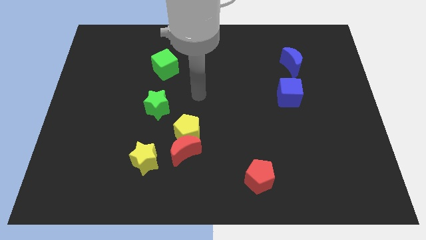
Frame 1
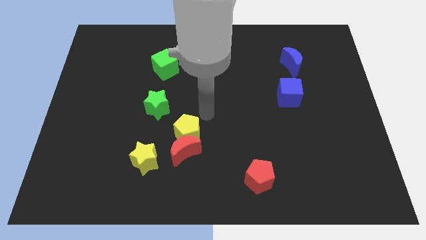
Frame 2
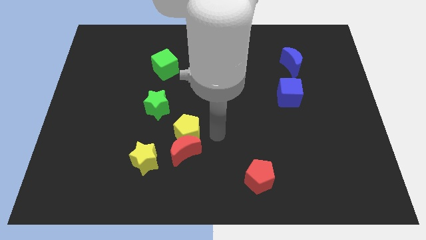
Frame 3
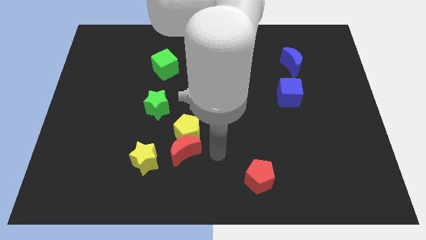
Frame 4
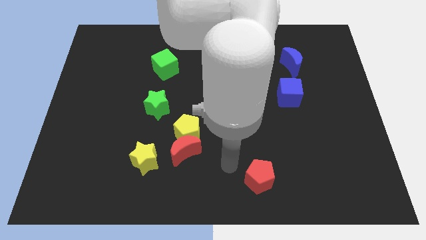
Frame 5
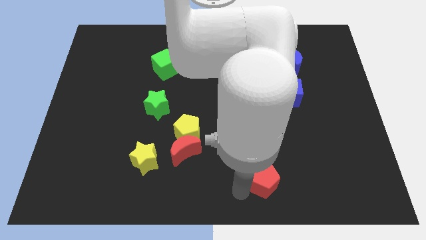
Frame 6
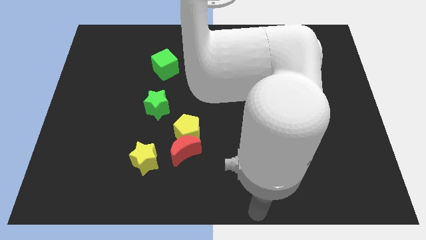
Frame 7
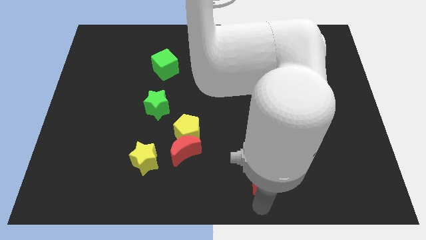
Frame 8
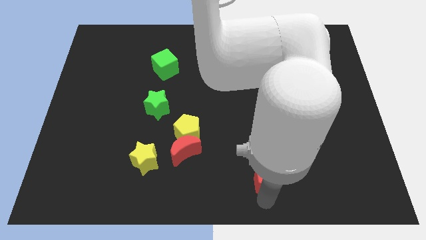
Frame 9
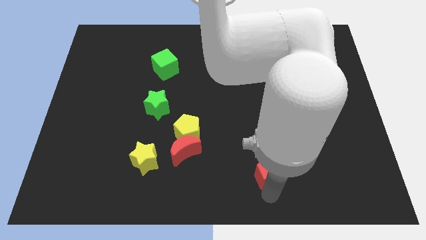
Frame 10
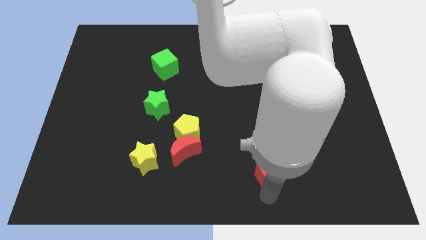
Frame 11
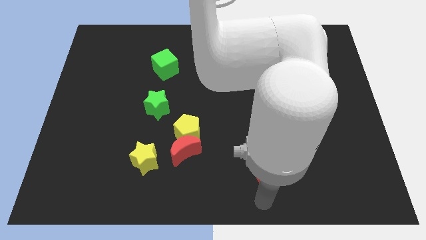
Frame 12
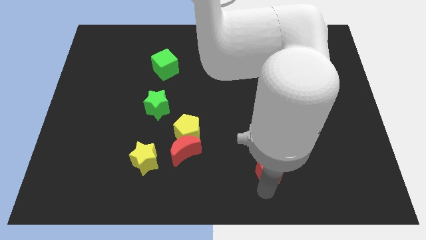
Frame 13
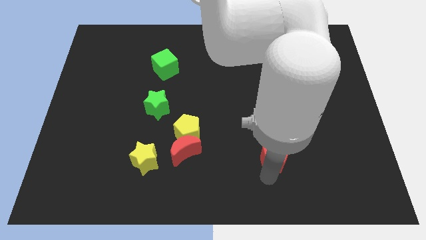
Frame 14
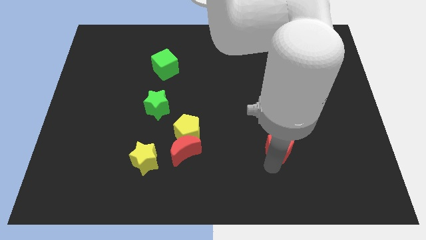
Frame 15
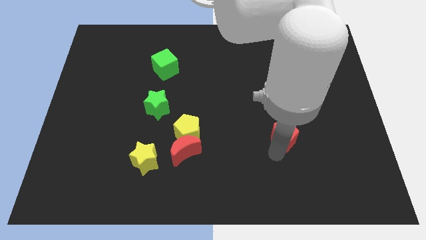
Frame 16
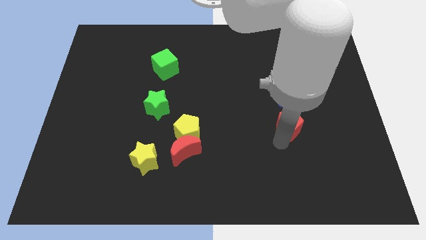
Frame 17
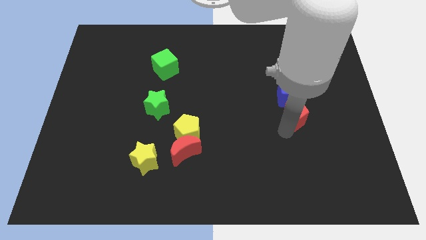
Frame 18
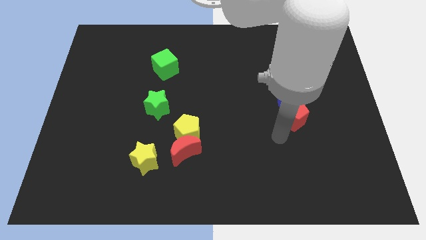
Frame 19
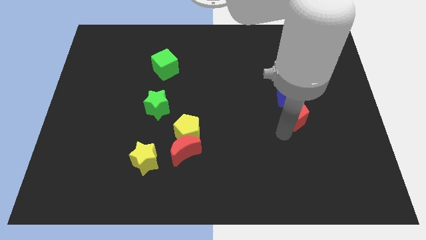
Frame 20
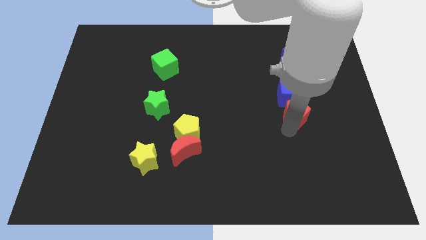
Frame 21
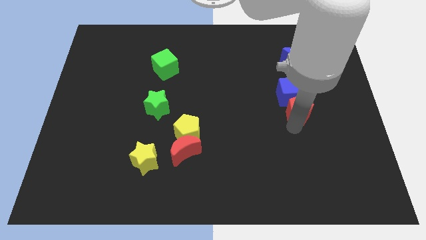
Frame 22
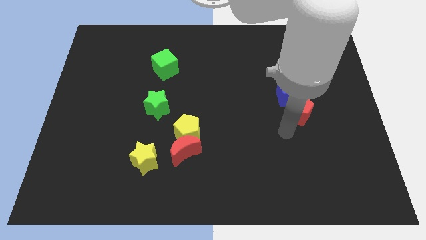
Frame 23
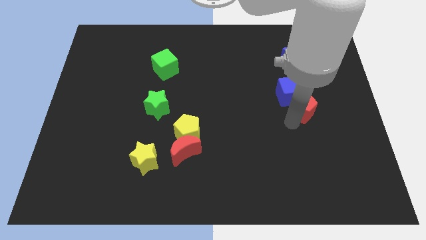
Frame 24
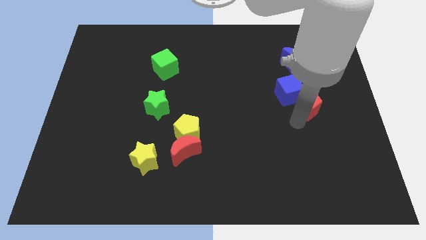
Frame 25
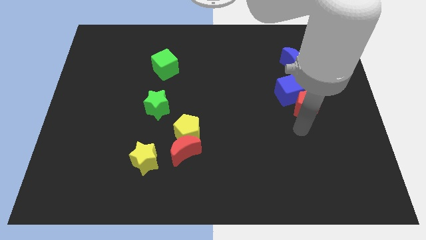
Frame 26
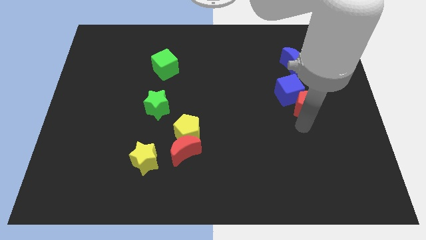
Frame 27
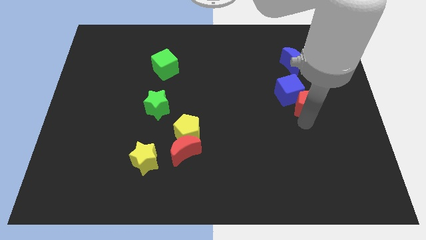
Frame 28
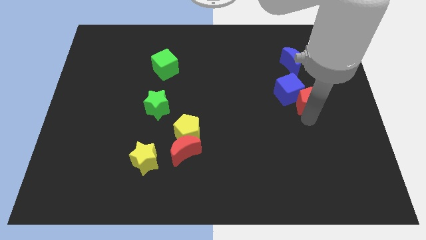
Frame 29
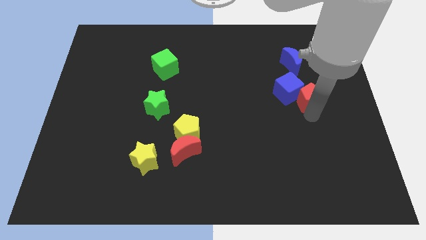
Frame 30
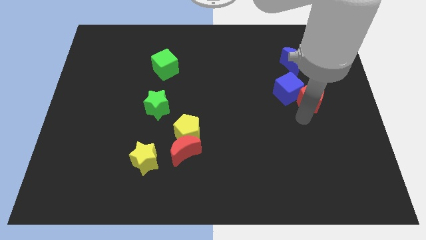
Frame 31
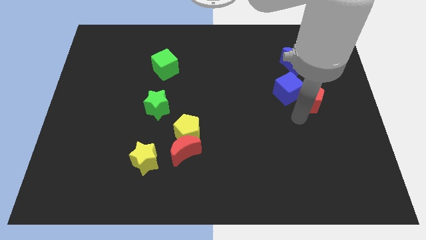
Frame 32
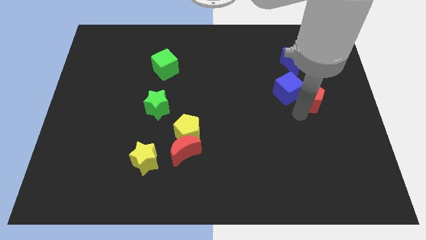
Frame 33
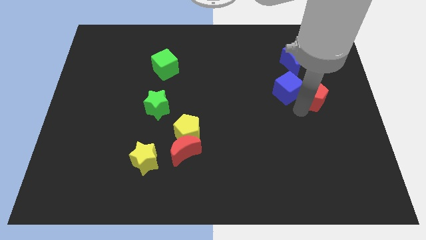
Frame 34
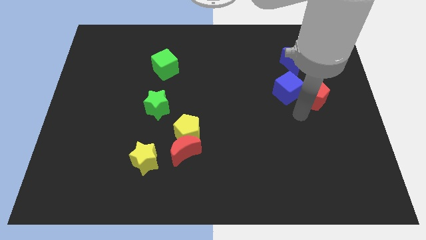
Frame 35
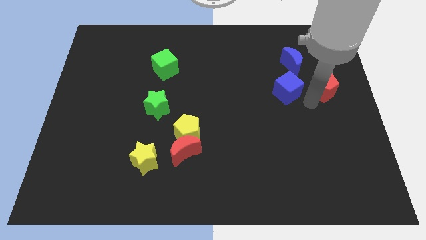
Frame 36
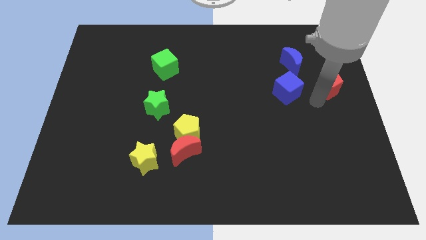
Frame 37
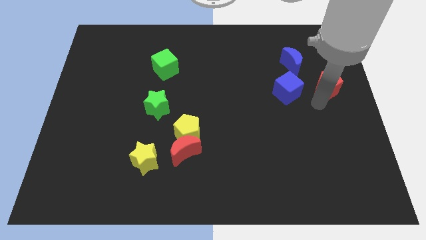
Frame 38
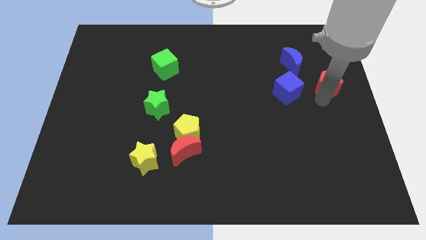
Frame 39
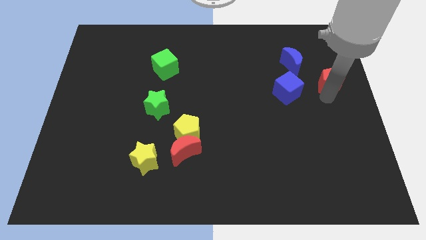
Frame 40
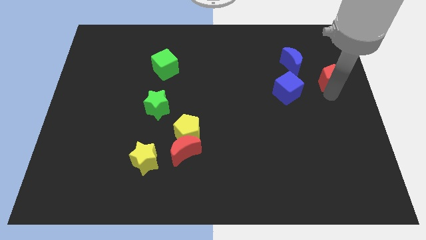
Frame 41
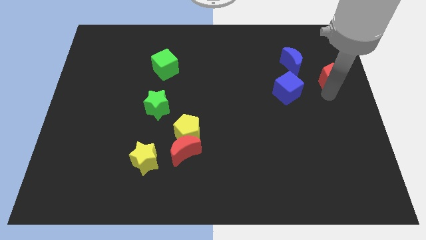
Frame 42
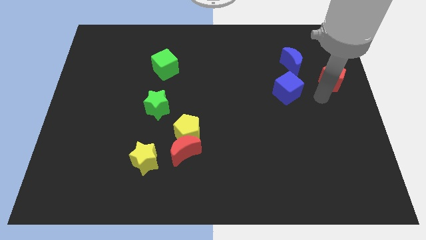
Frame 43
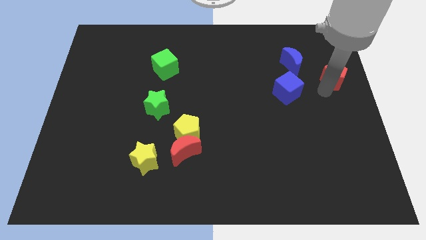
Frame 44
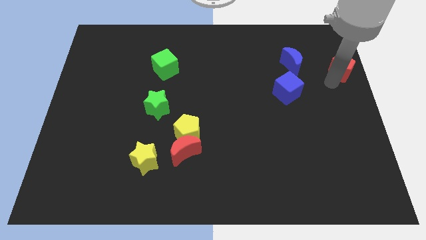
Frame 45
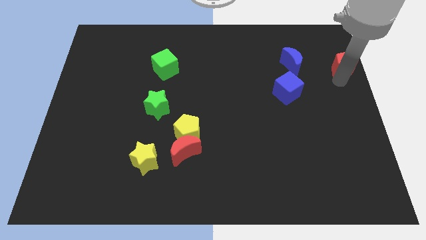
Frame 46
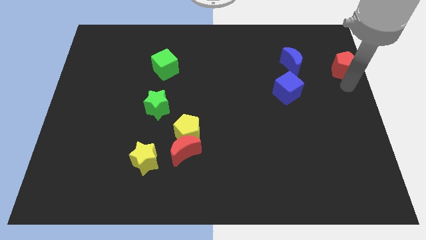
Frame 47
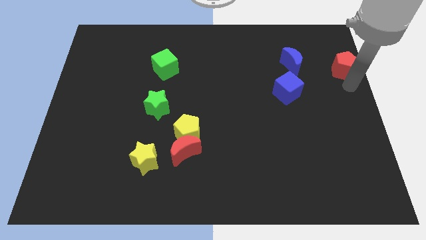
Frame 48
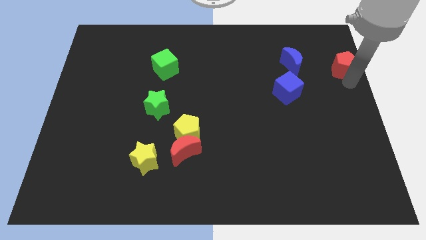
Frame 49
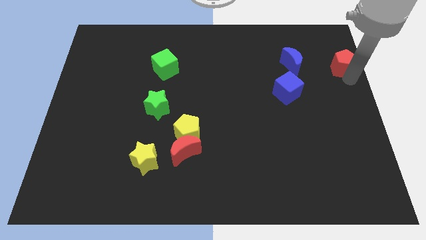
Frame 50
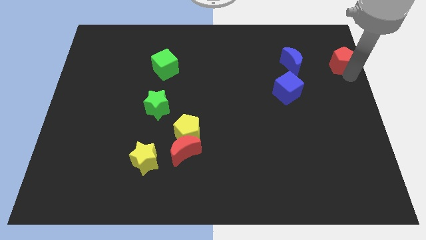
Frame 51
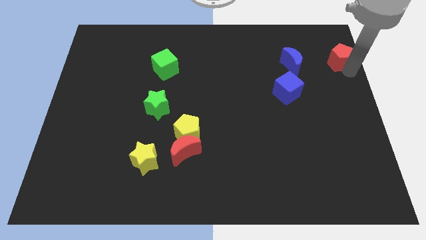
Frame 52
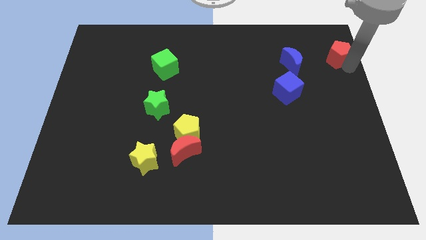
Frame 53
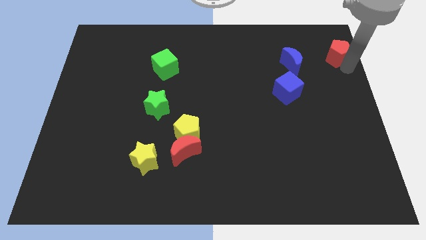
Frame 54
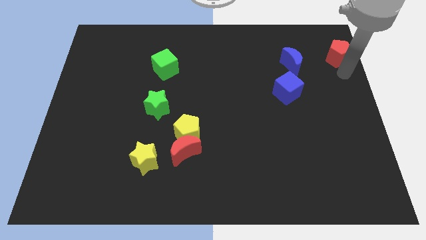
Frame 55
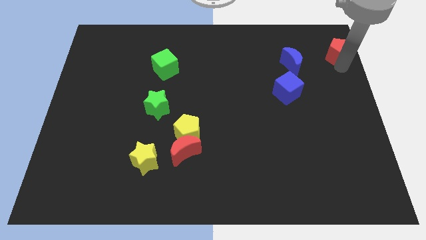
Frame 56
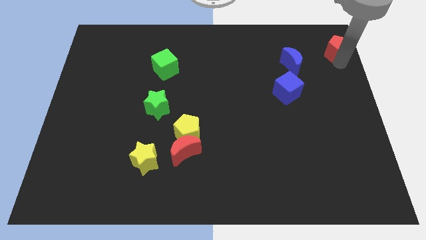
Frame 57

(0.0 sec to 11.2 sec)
put the red pentagon to the upper right corner
